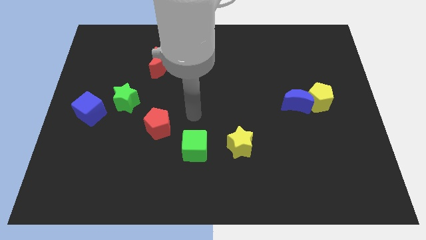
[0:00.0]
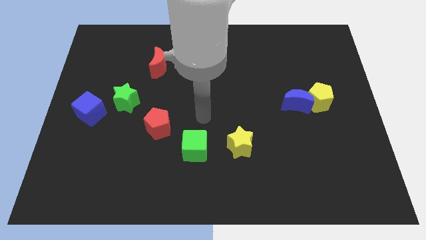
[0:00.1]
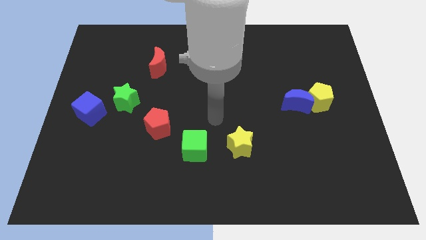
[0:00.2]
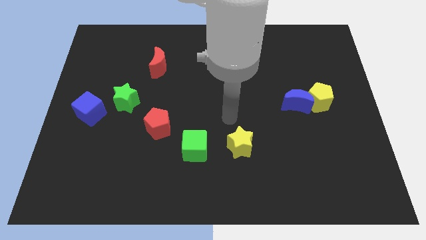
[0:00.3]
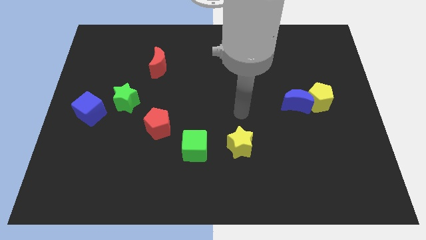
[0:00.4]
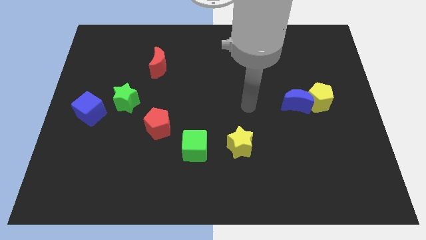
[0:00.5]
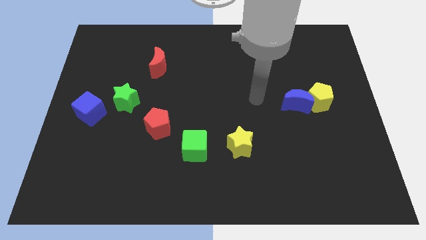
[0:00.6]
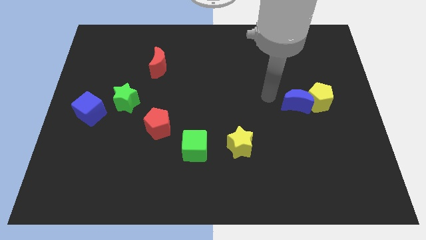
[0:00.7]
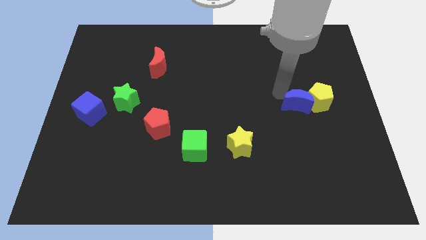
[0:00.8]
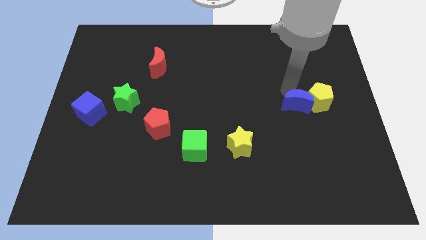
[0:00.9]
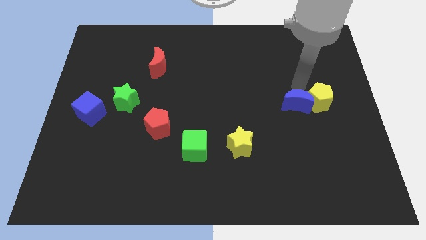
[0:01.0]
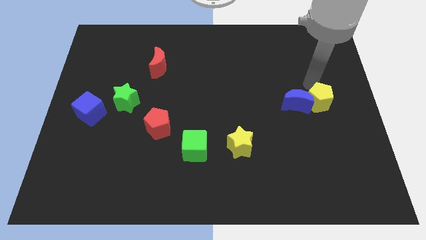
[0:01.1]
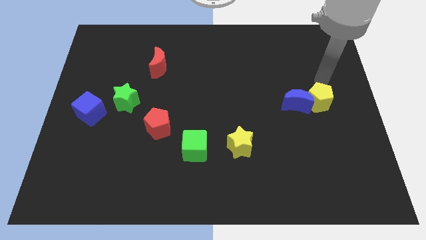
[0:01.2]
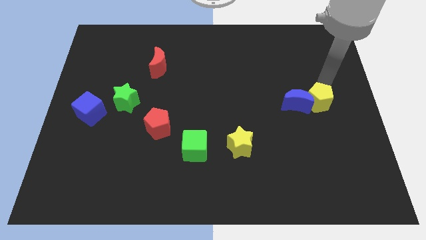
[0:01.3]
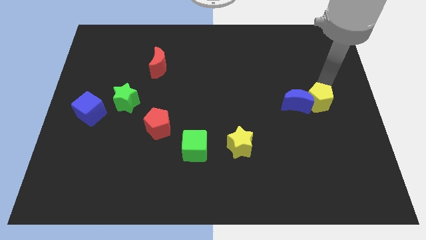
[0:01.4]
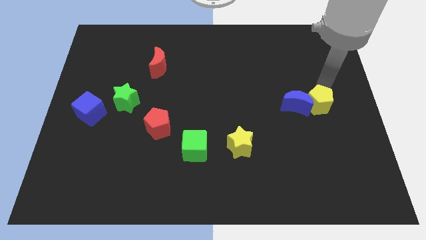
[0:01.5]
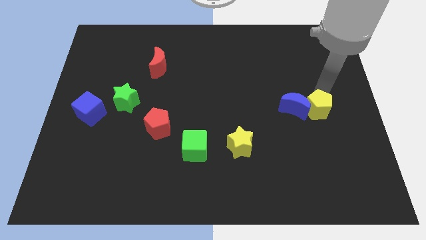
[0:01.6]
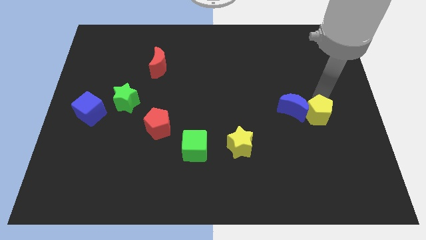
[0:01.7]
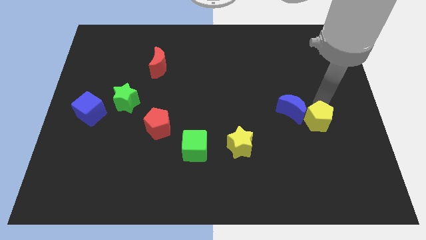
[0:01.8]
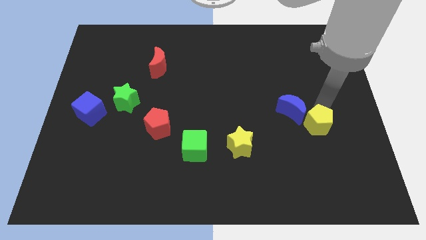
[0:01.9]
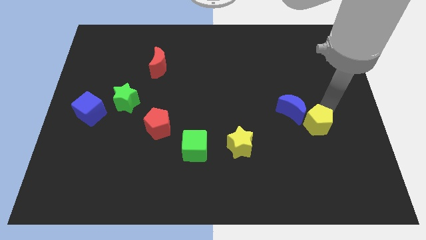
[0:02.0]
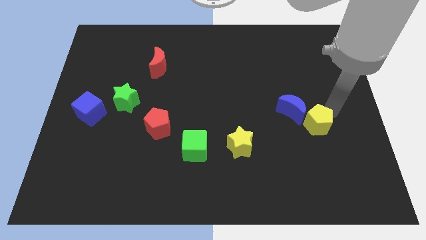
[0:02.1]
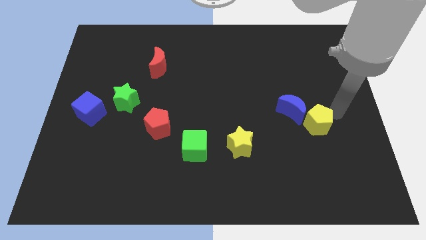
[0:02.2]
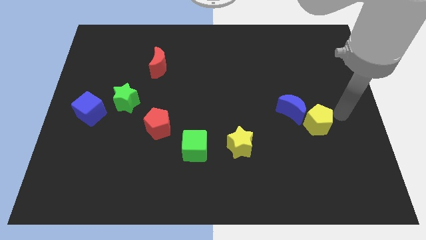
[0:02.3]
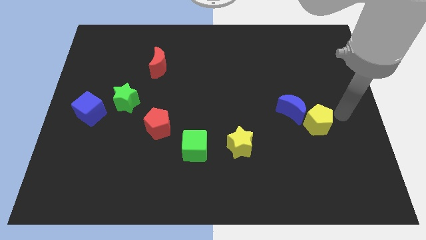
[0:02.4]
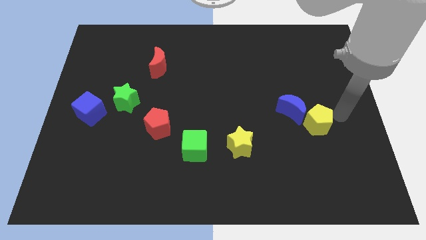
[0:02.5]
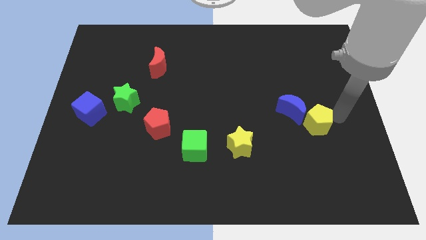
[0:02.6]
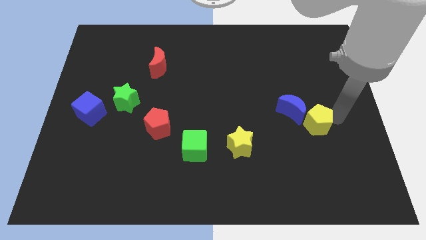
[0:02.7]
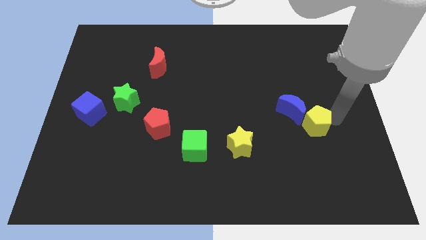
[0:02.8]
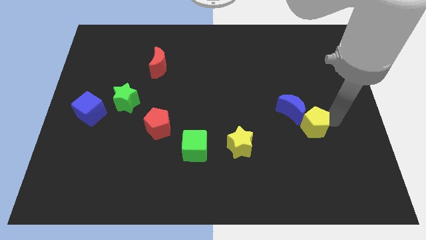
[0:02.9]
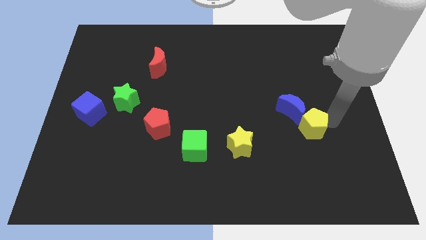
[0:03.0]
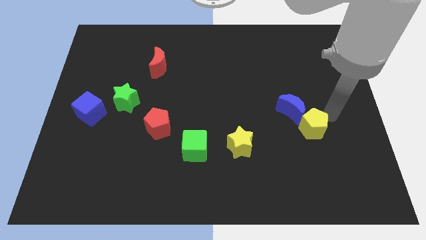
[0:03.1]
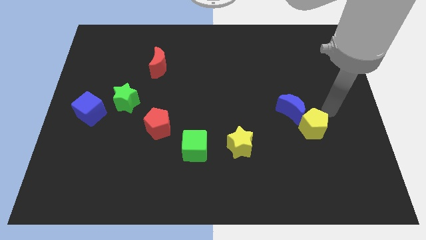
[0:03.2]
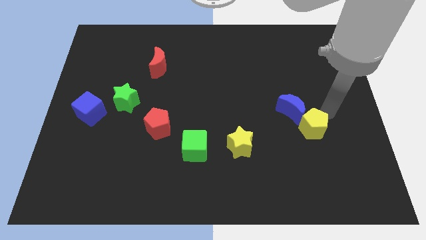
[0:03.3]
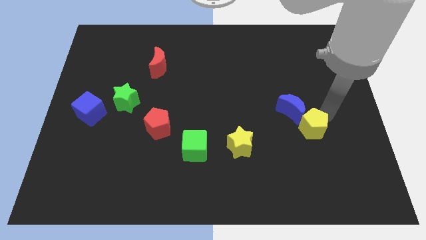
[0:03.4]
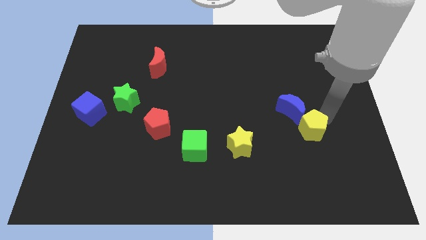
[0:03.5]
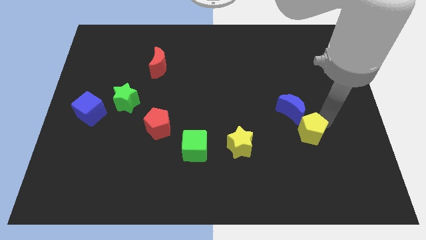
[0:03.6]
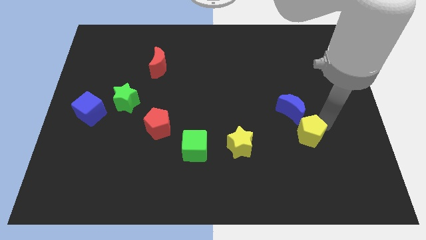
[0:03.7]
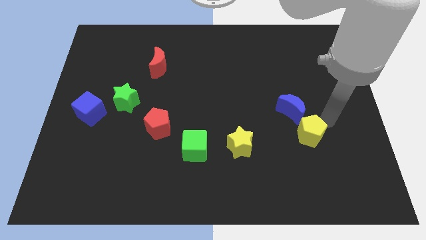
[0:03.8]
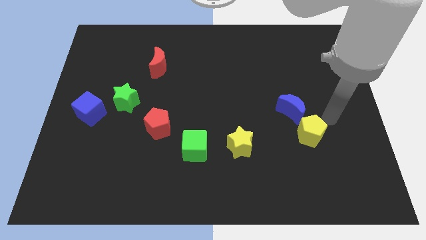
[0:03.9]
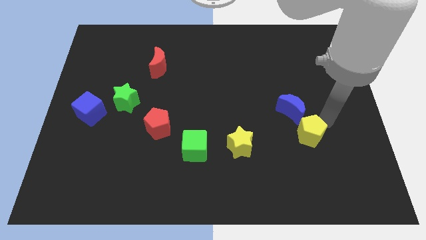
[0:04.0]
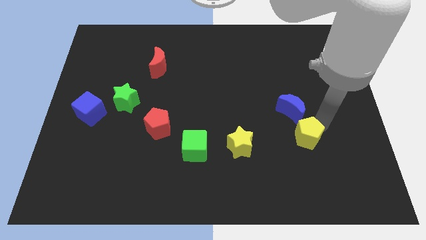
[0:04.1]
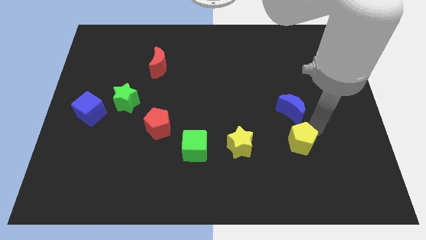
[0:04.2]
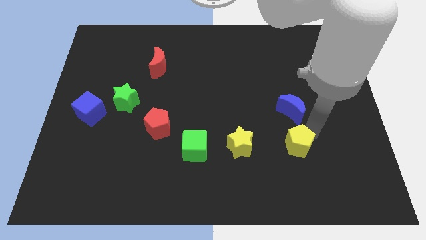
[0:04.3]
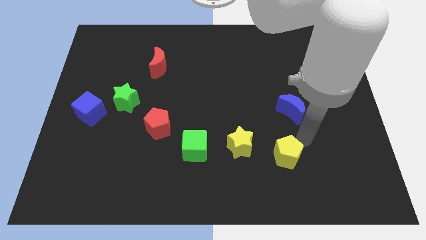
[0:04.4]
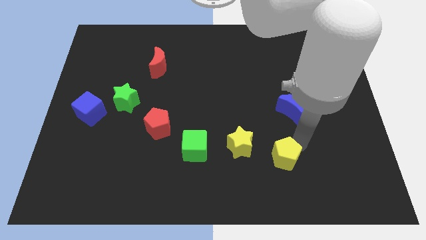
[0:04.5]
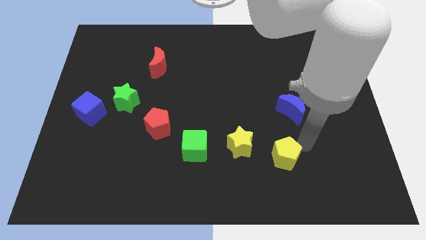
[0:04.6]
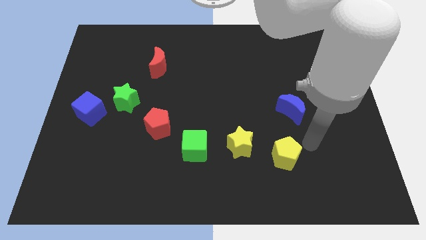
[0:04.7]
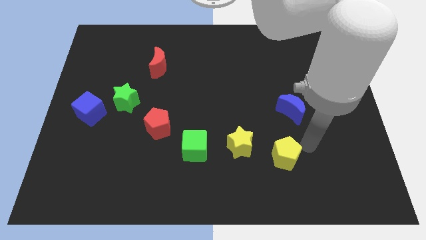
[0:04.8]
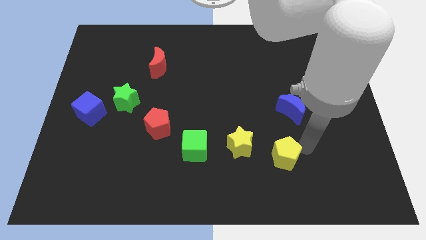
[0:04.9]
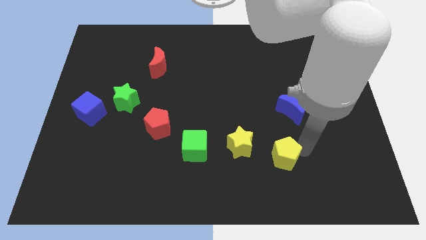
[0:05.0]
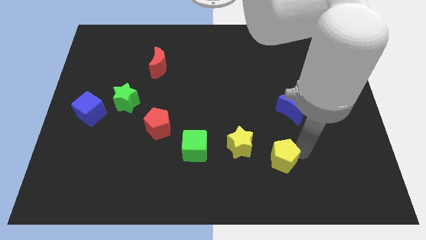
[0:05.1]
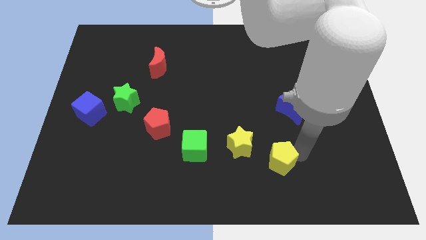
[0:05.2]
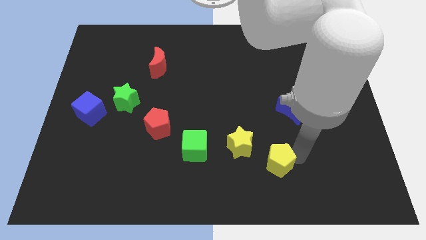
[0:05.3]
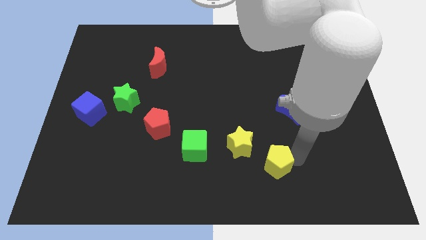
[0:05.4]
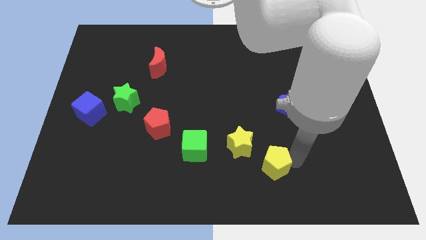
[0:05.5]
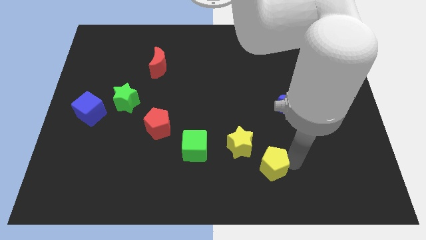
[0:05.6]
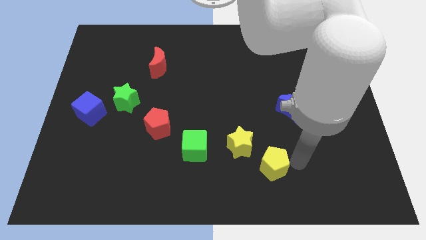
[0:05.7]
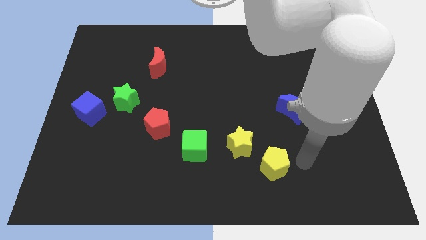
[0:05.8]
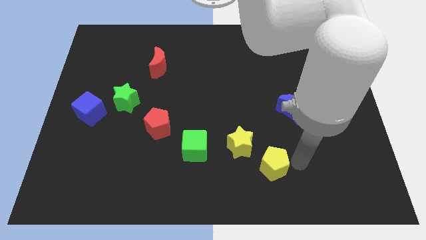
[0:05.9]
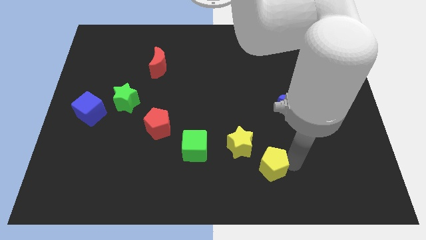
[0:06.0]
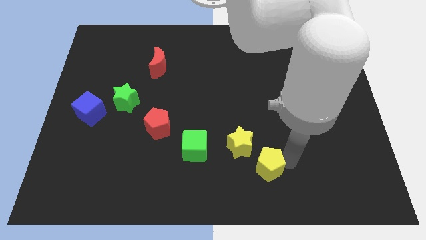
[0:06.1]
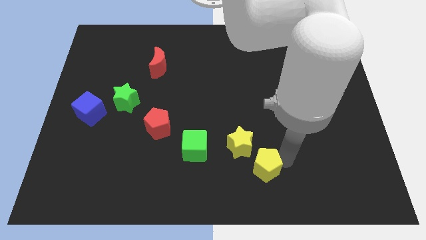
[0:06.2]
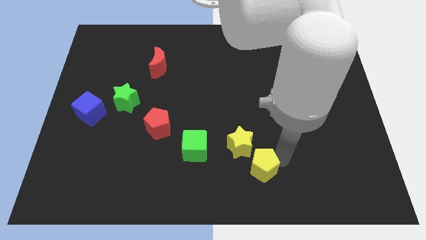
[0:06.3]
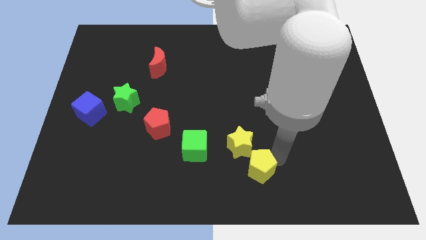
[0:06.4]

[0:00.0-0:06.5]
move the yellow pentagon to the bottom

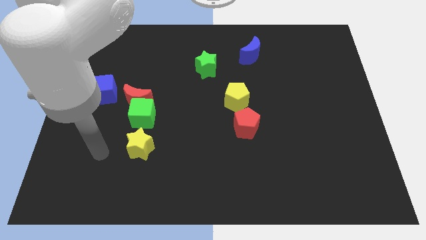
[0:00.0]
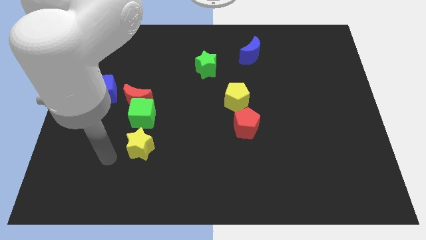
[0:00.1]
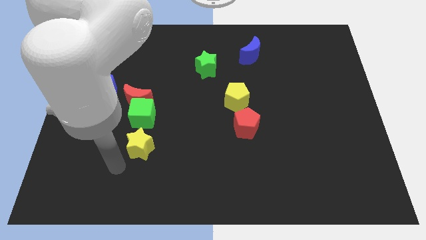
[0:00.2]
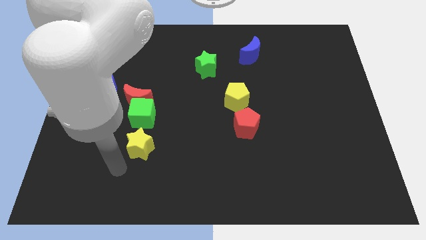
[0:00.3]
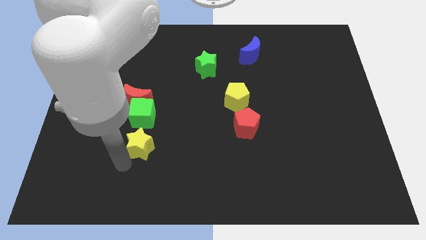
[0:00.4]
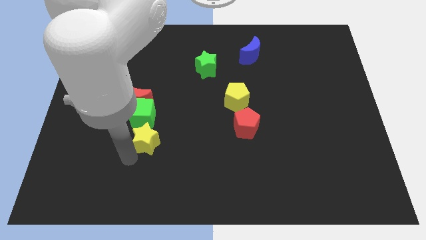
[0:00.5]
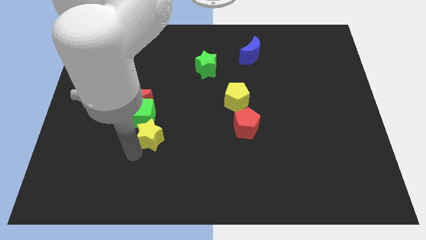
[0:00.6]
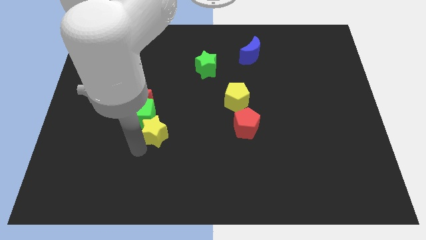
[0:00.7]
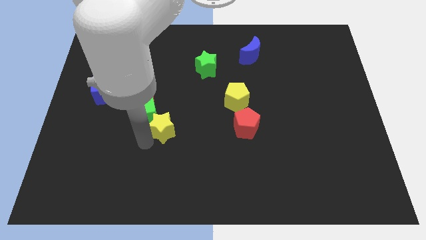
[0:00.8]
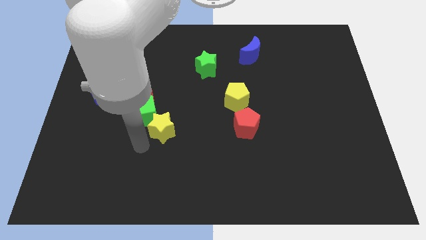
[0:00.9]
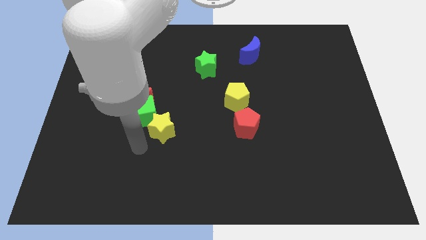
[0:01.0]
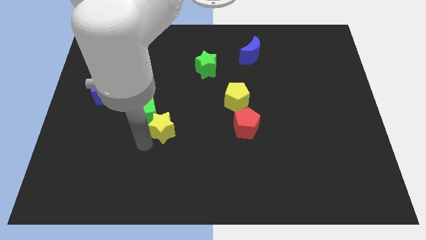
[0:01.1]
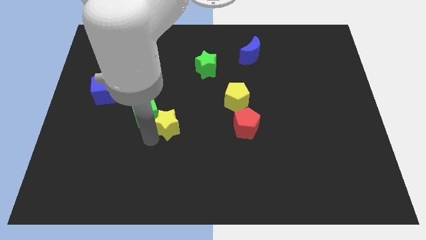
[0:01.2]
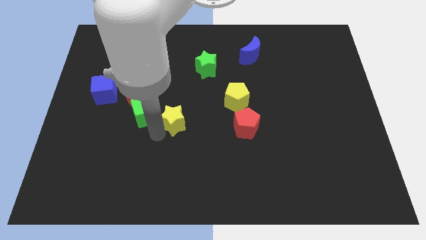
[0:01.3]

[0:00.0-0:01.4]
put the yellow star to the middle
